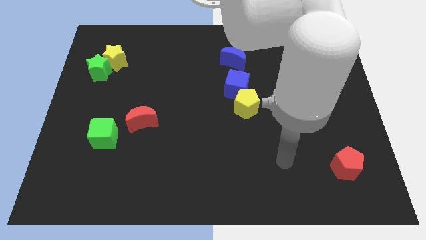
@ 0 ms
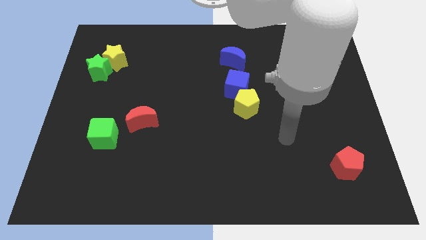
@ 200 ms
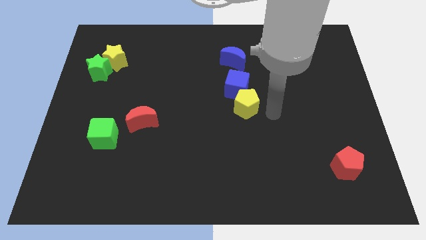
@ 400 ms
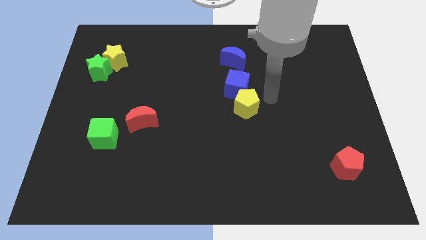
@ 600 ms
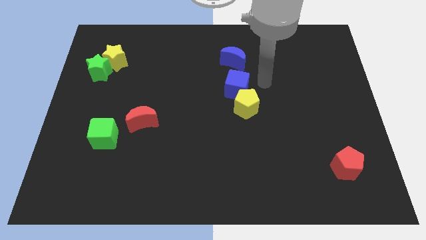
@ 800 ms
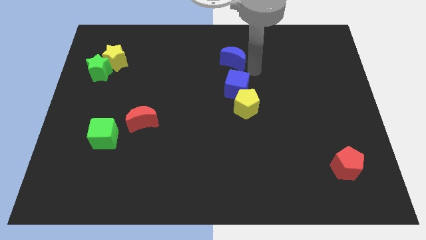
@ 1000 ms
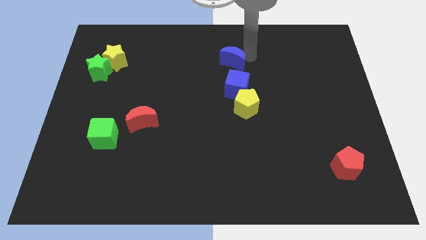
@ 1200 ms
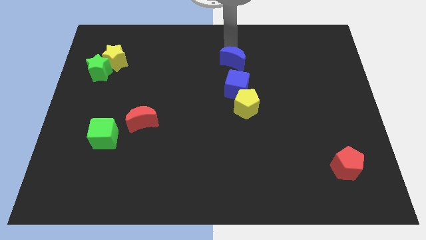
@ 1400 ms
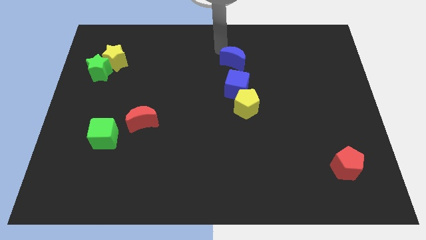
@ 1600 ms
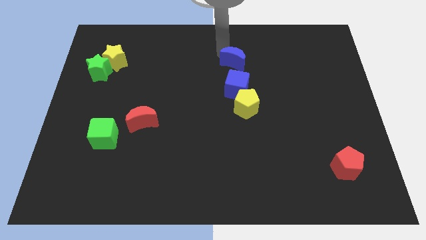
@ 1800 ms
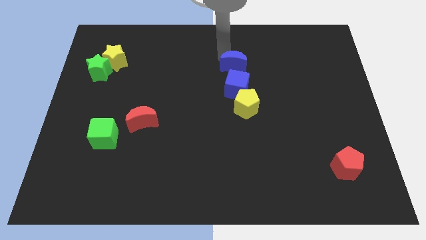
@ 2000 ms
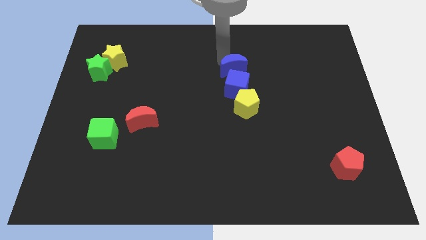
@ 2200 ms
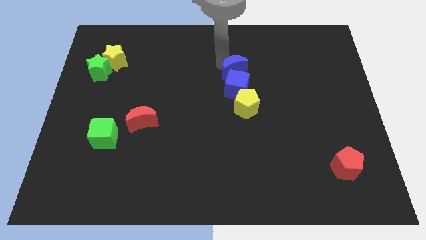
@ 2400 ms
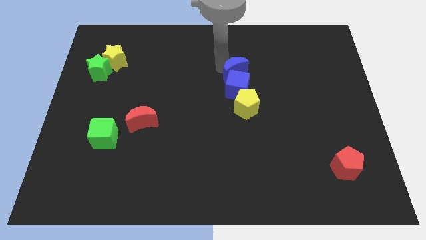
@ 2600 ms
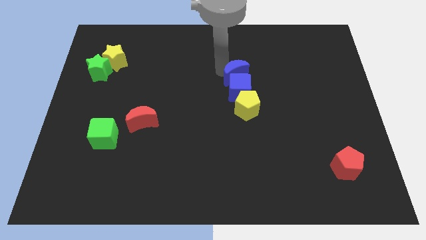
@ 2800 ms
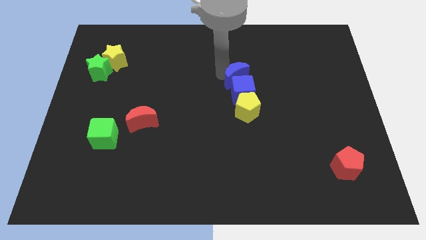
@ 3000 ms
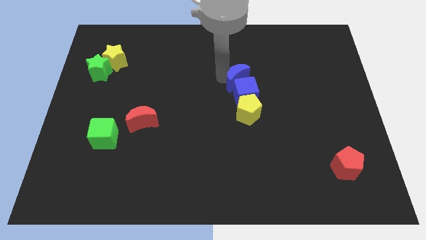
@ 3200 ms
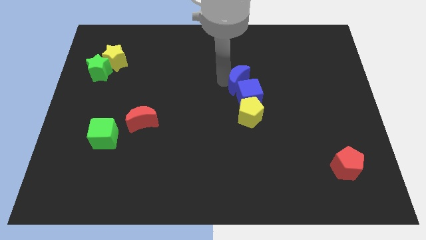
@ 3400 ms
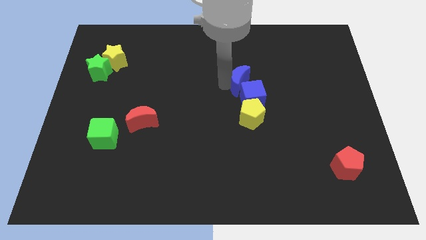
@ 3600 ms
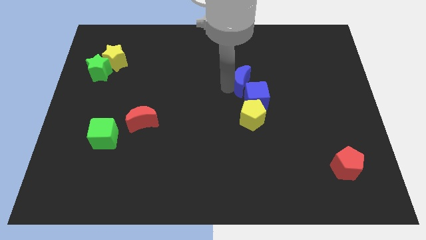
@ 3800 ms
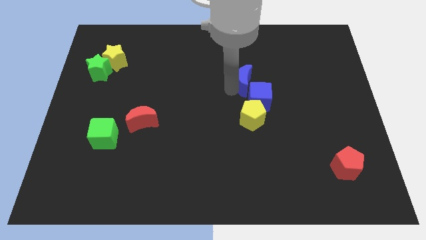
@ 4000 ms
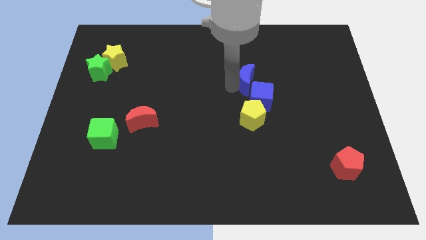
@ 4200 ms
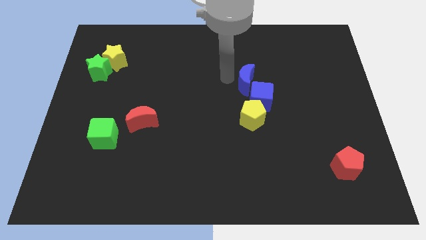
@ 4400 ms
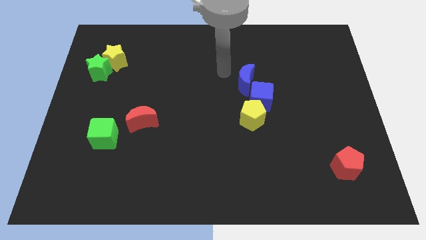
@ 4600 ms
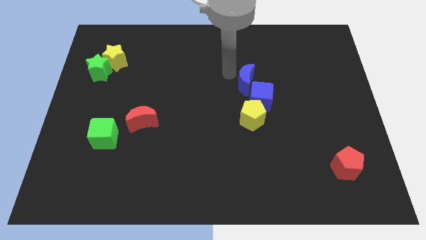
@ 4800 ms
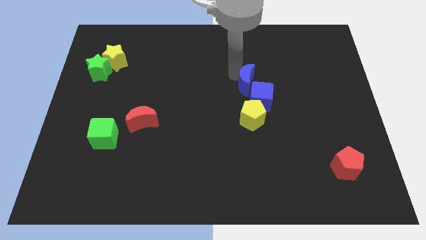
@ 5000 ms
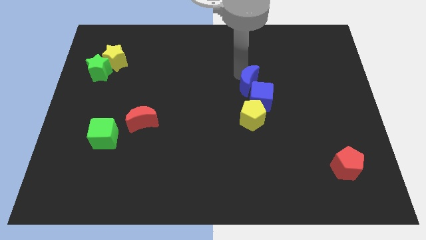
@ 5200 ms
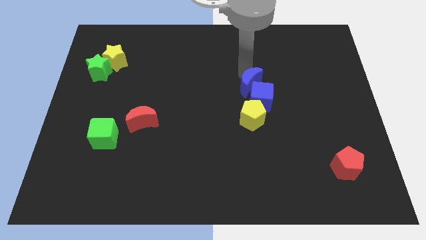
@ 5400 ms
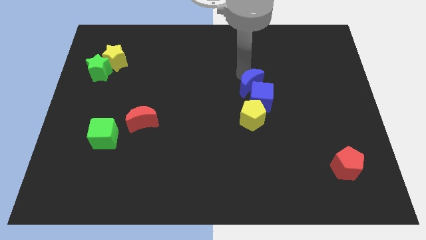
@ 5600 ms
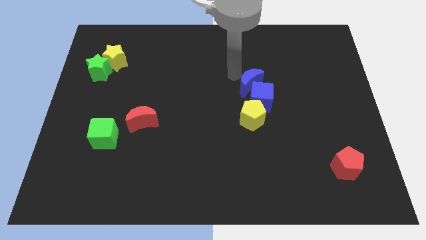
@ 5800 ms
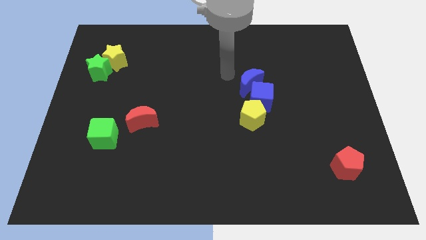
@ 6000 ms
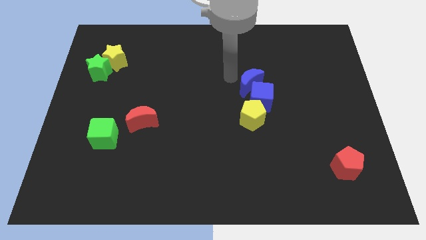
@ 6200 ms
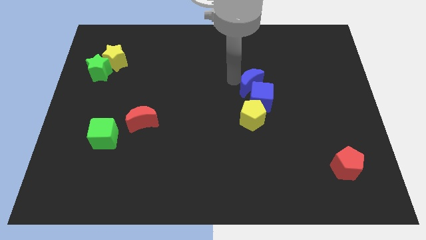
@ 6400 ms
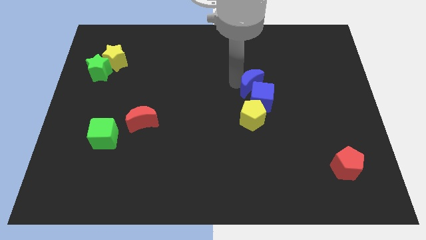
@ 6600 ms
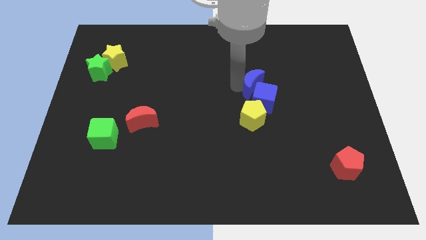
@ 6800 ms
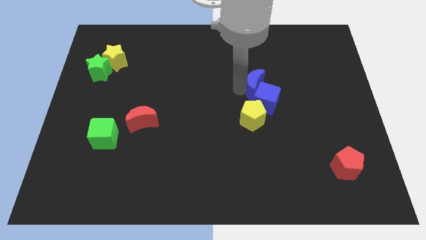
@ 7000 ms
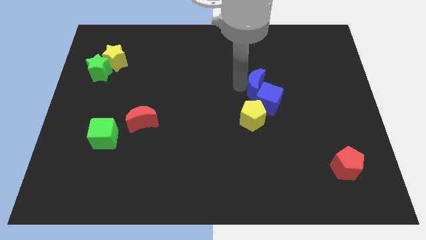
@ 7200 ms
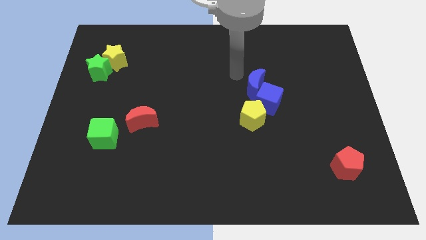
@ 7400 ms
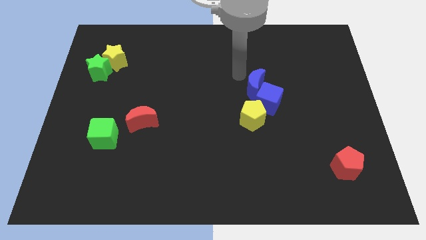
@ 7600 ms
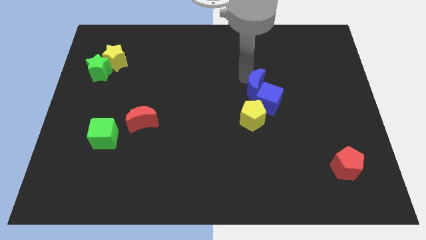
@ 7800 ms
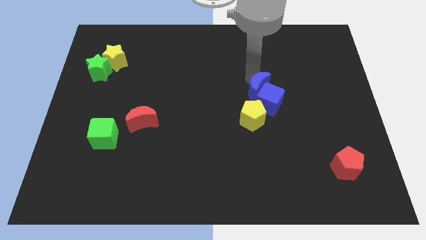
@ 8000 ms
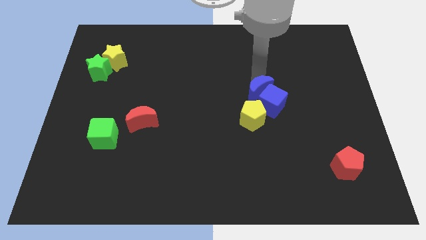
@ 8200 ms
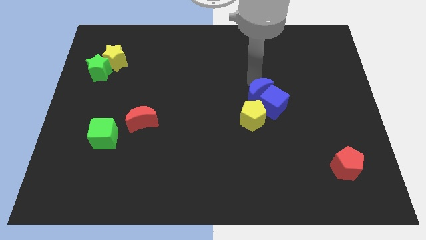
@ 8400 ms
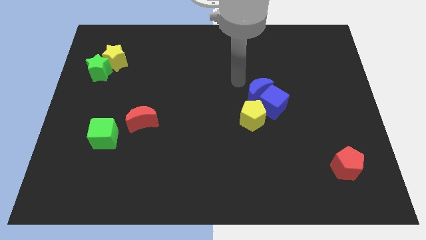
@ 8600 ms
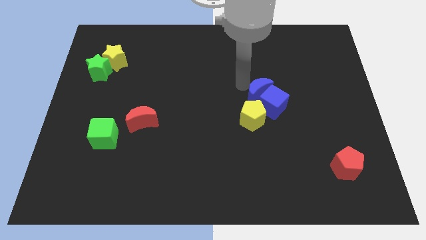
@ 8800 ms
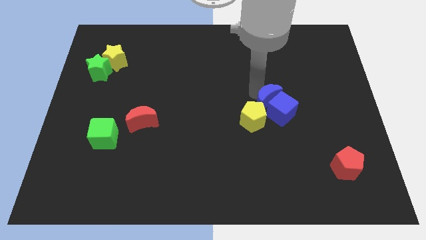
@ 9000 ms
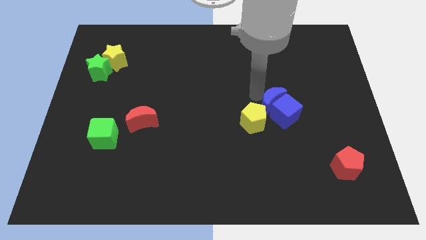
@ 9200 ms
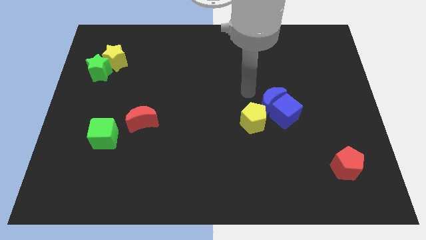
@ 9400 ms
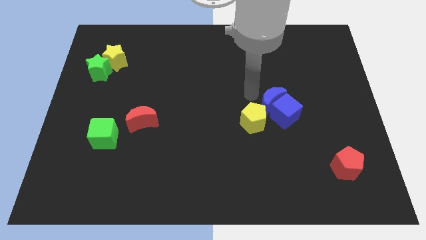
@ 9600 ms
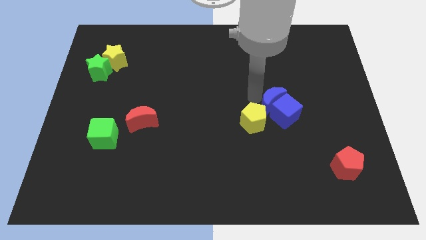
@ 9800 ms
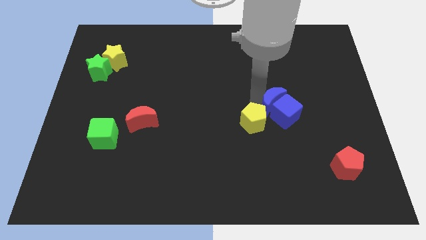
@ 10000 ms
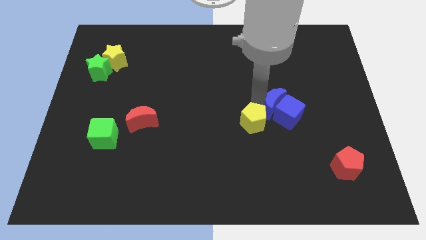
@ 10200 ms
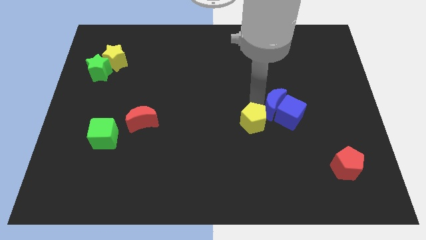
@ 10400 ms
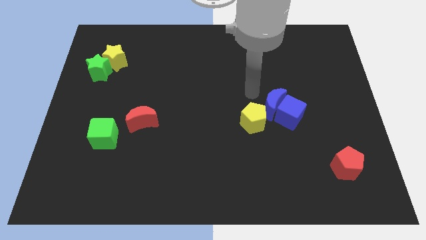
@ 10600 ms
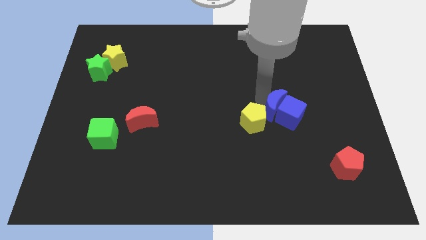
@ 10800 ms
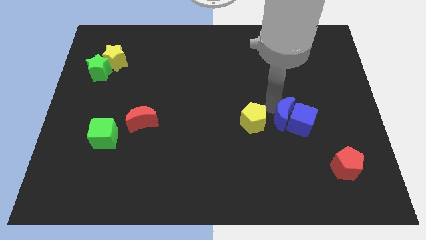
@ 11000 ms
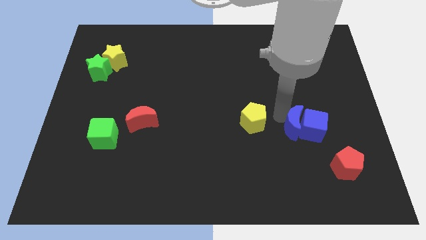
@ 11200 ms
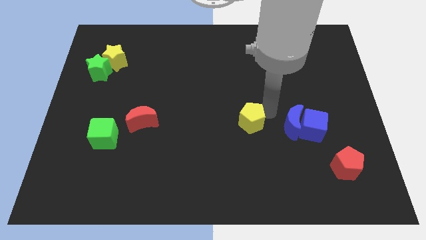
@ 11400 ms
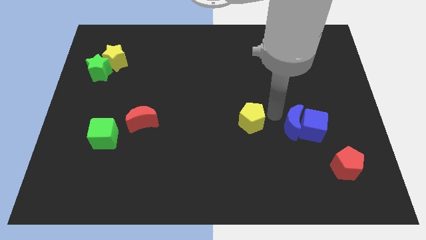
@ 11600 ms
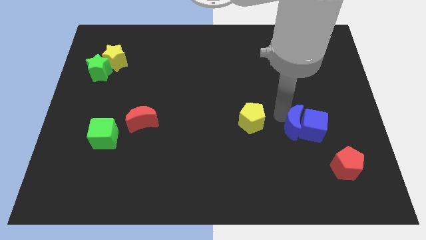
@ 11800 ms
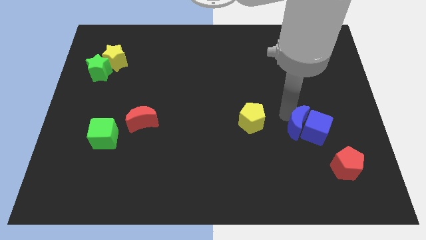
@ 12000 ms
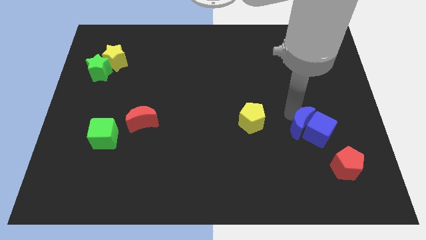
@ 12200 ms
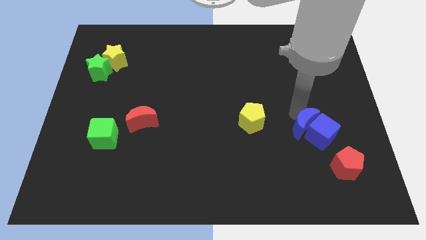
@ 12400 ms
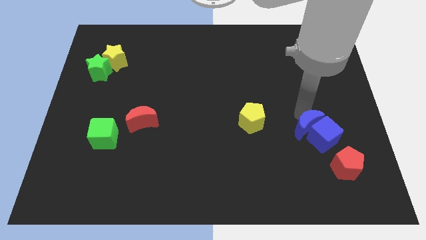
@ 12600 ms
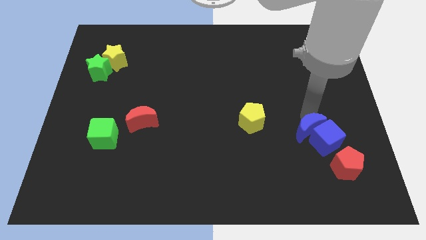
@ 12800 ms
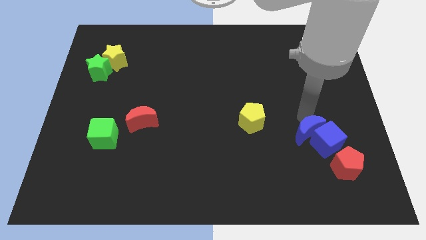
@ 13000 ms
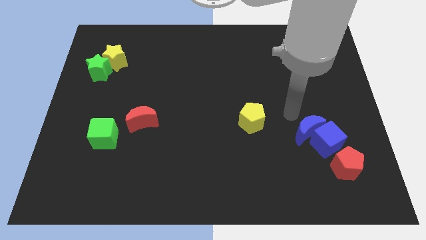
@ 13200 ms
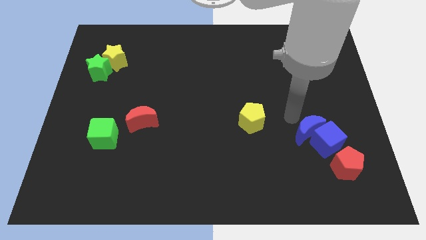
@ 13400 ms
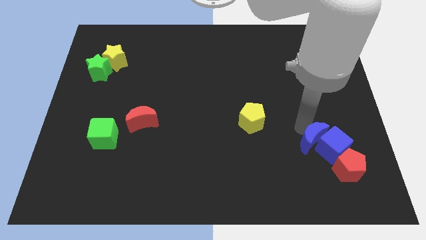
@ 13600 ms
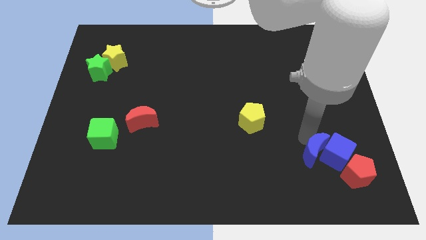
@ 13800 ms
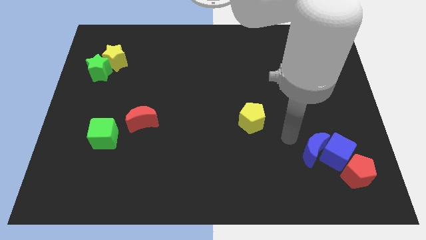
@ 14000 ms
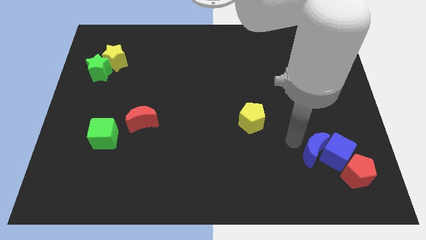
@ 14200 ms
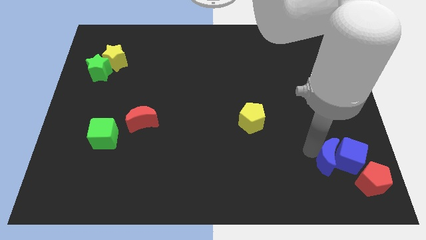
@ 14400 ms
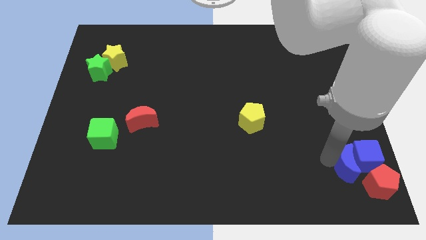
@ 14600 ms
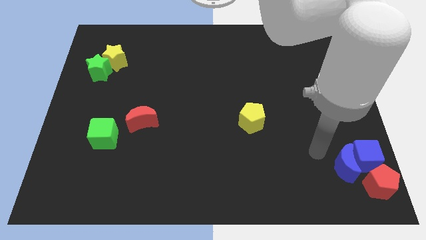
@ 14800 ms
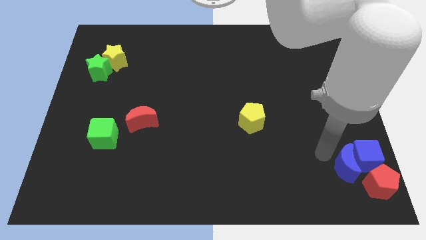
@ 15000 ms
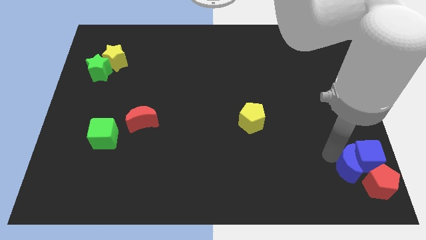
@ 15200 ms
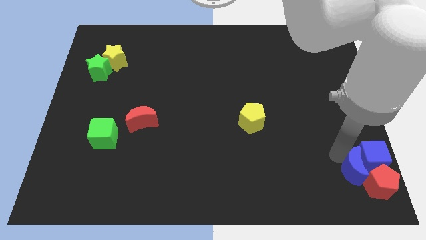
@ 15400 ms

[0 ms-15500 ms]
push the blue moon to the red pentagon
